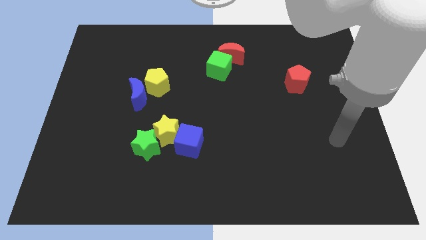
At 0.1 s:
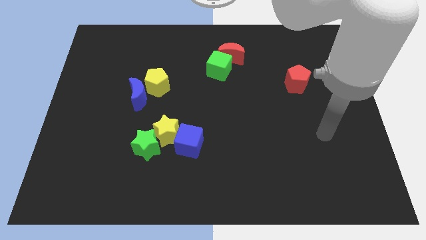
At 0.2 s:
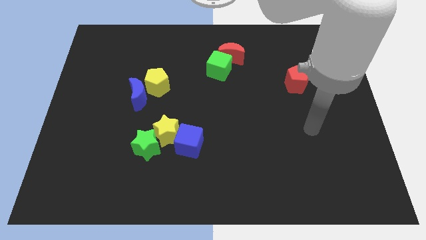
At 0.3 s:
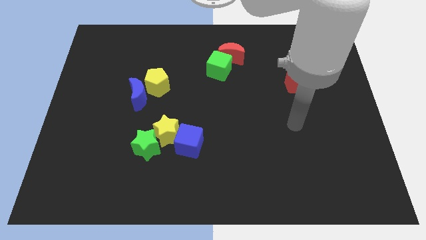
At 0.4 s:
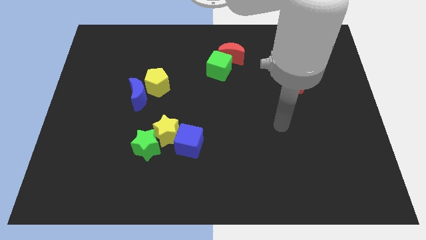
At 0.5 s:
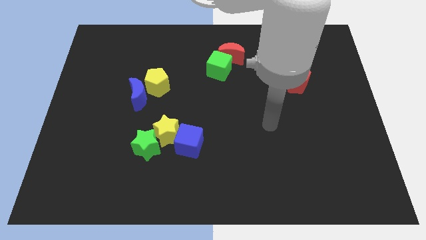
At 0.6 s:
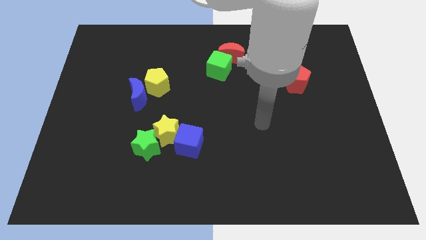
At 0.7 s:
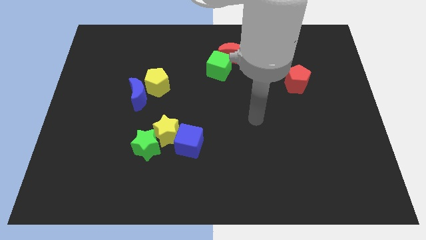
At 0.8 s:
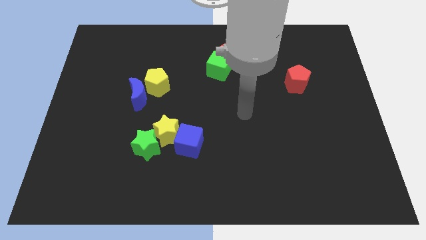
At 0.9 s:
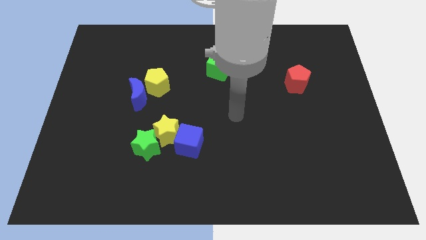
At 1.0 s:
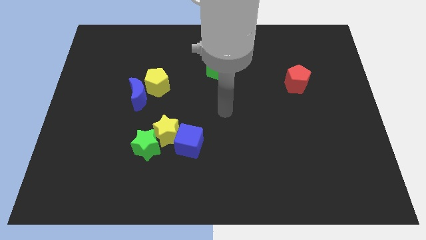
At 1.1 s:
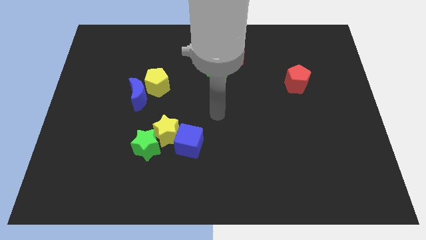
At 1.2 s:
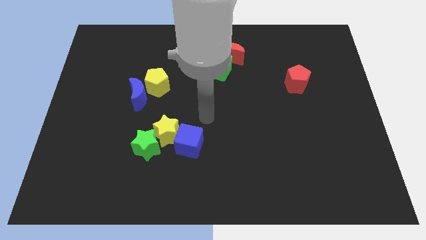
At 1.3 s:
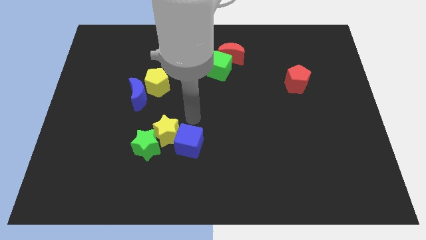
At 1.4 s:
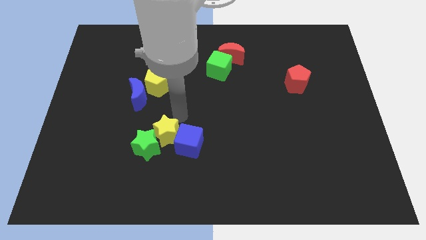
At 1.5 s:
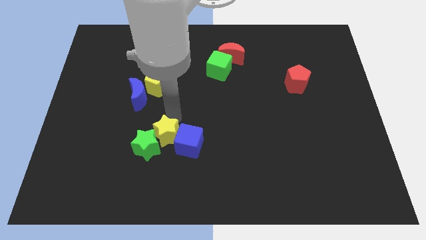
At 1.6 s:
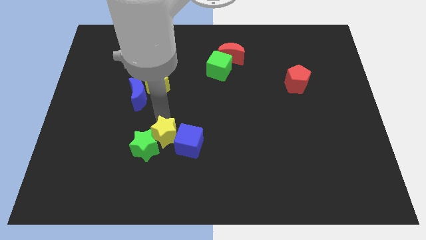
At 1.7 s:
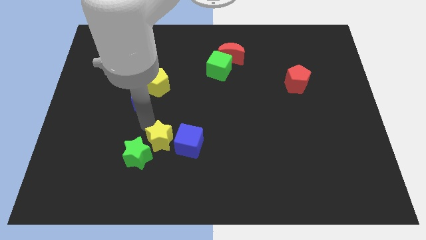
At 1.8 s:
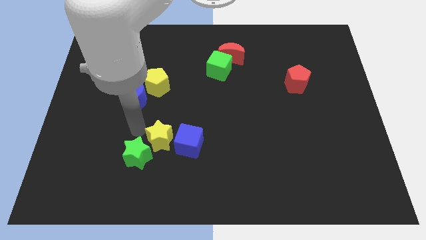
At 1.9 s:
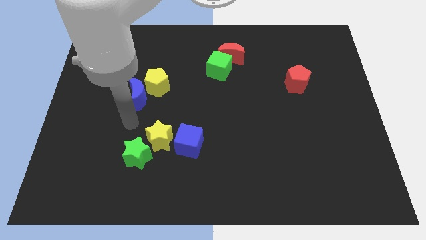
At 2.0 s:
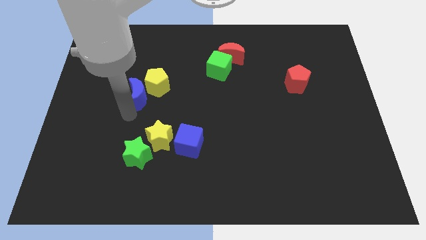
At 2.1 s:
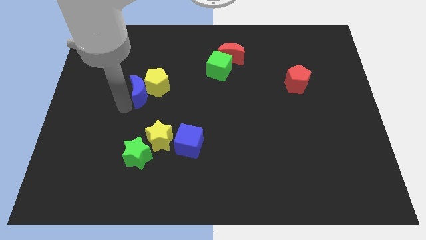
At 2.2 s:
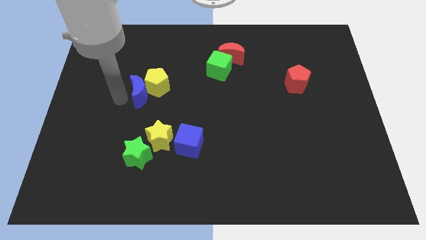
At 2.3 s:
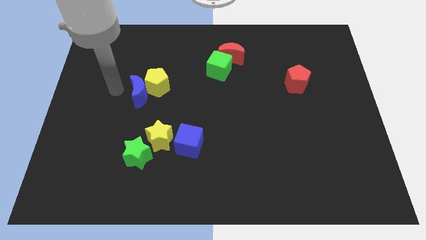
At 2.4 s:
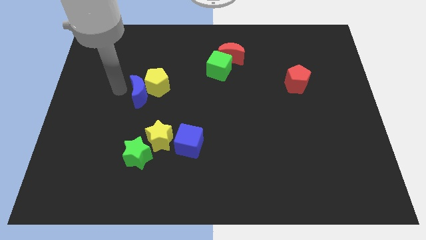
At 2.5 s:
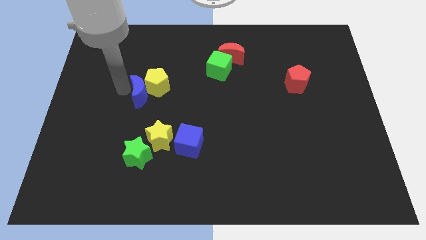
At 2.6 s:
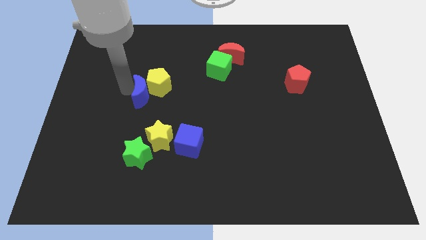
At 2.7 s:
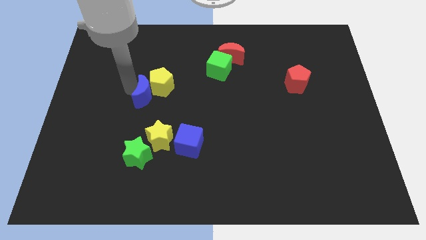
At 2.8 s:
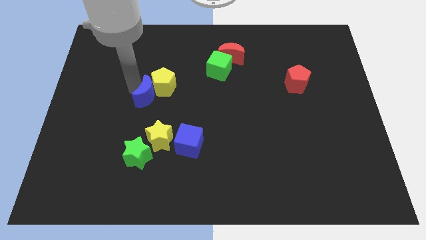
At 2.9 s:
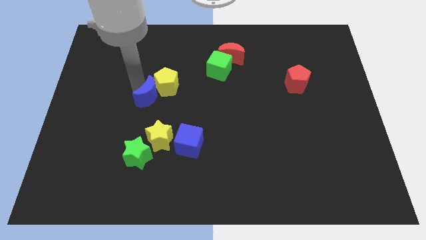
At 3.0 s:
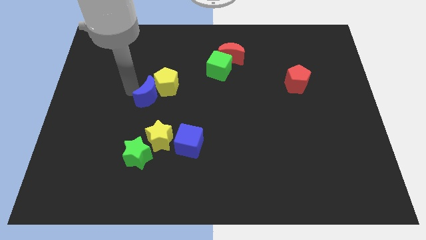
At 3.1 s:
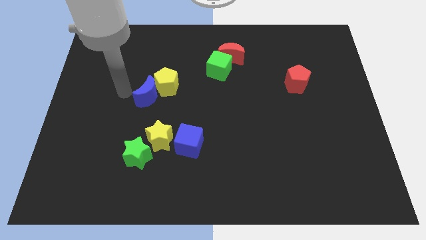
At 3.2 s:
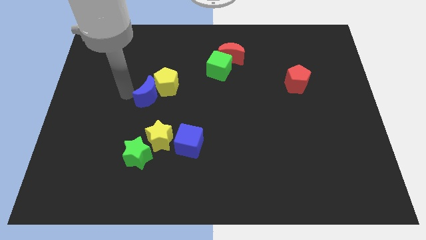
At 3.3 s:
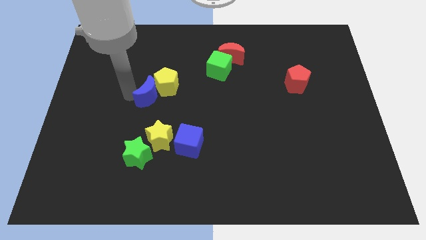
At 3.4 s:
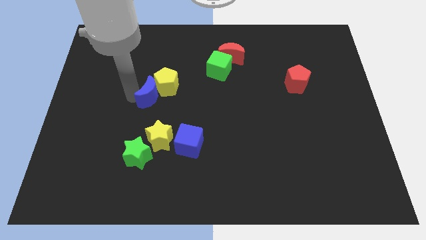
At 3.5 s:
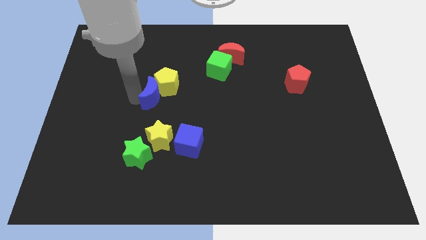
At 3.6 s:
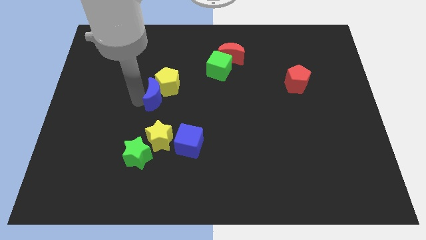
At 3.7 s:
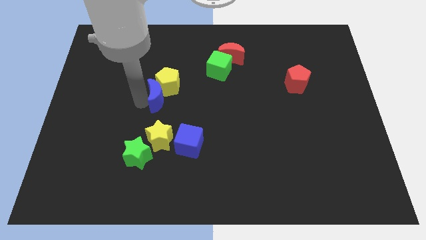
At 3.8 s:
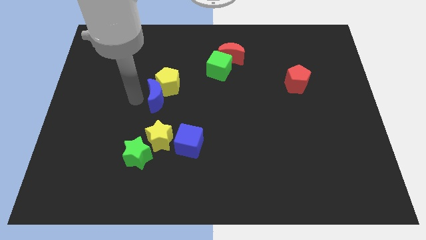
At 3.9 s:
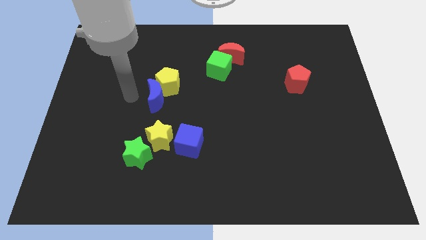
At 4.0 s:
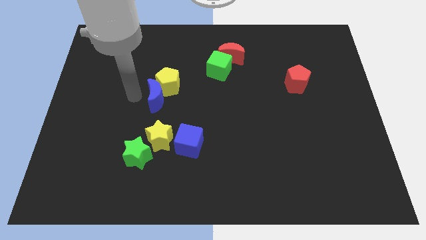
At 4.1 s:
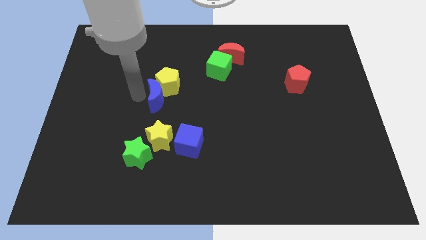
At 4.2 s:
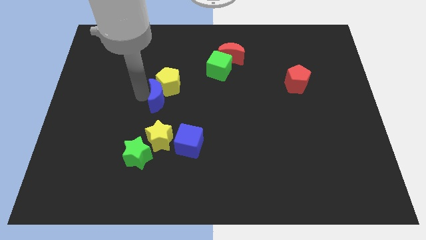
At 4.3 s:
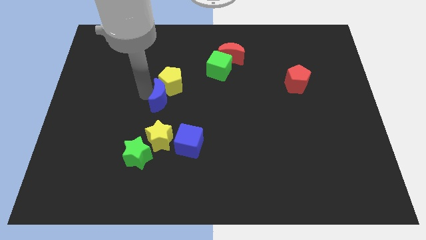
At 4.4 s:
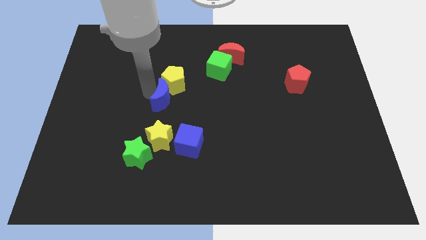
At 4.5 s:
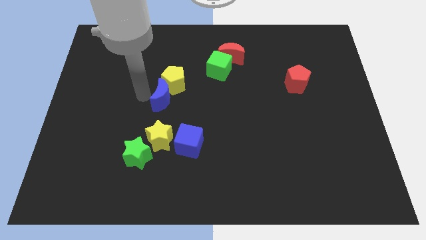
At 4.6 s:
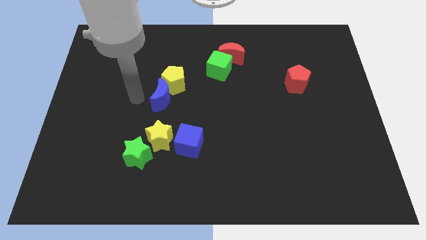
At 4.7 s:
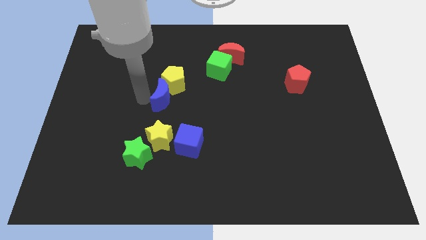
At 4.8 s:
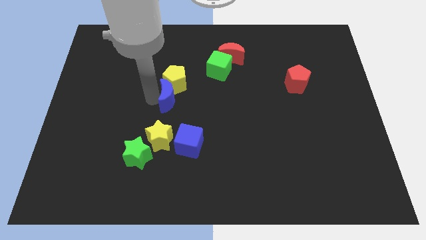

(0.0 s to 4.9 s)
push the blue moon diagonally down and to the right of the yellow pentagon

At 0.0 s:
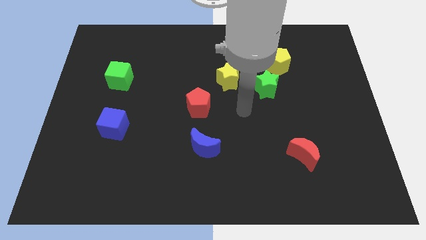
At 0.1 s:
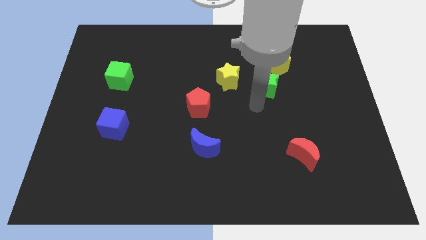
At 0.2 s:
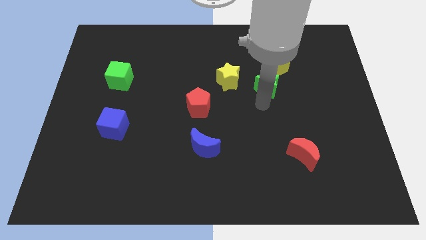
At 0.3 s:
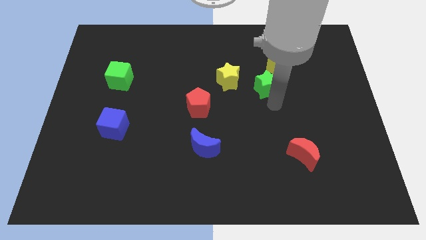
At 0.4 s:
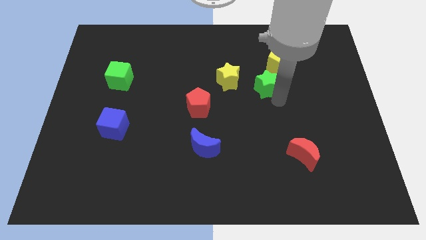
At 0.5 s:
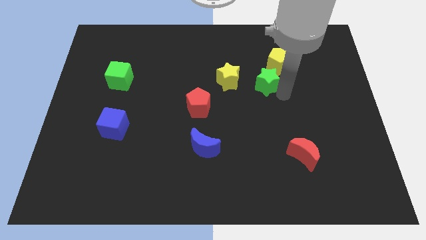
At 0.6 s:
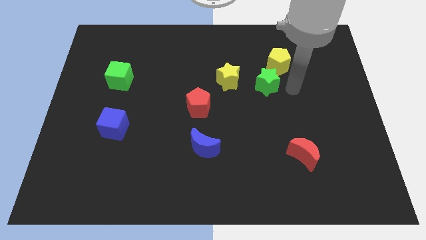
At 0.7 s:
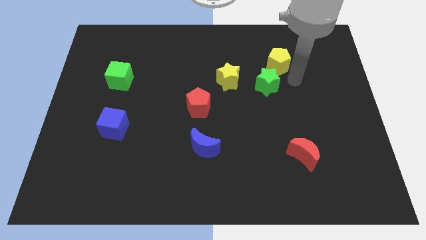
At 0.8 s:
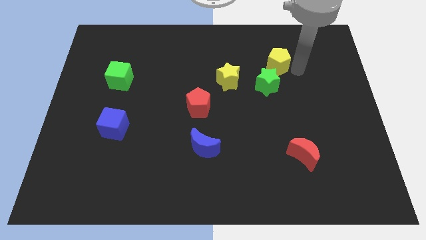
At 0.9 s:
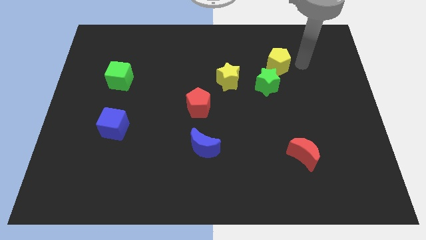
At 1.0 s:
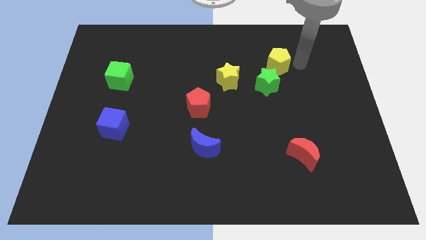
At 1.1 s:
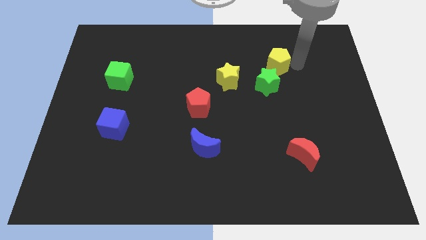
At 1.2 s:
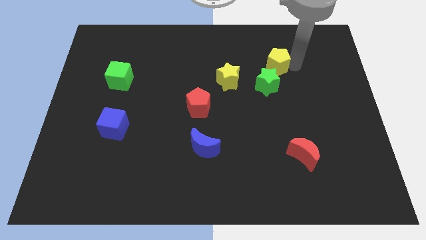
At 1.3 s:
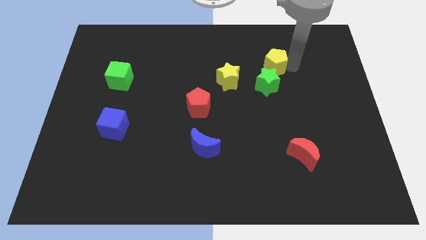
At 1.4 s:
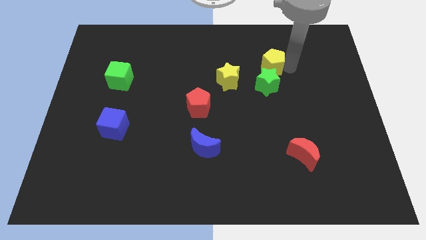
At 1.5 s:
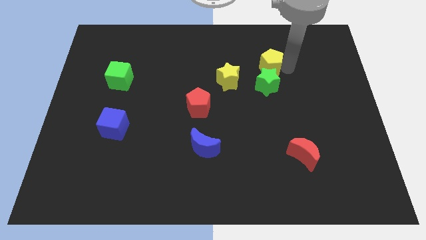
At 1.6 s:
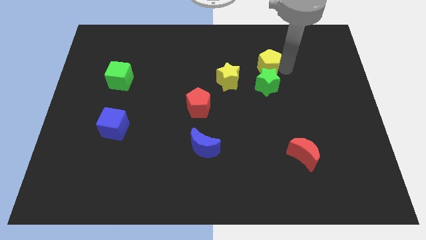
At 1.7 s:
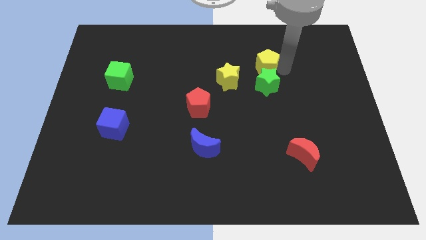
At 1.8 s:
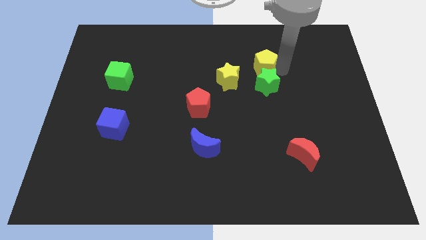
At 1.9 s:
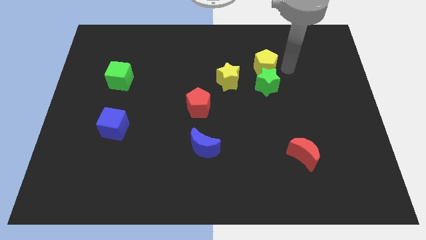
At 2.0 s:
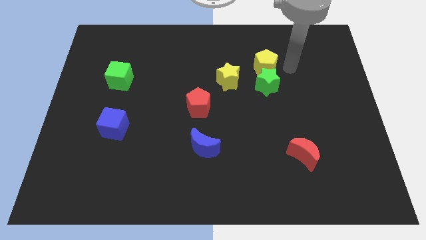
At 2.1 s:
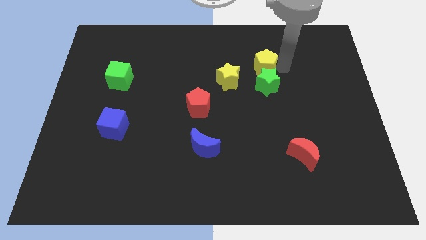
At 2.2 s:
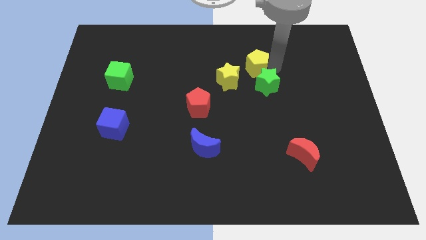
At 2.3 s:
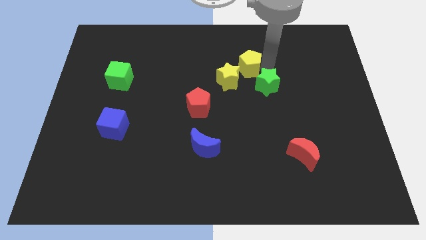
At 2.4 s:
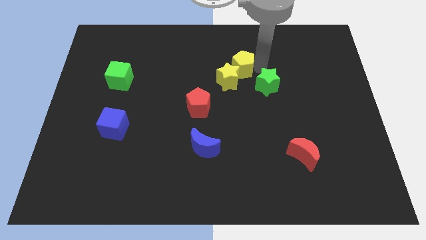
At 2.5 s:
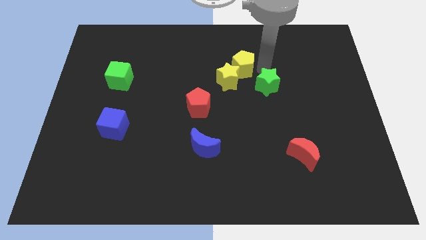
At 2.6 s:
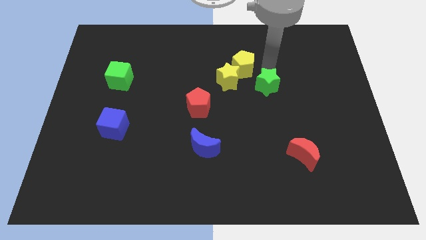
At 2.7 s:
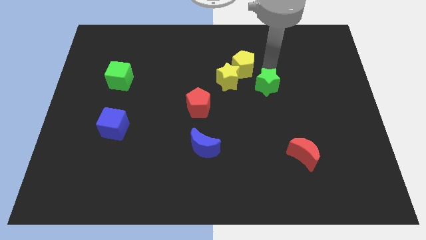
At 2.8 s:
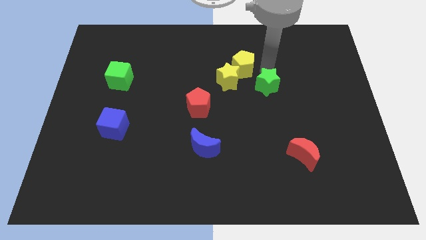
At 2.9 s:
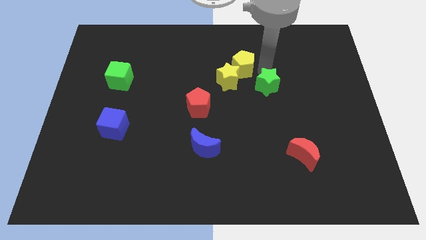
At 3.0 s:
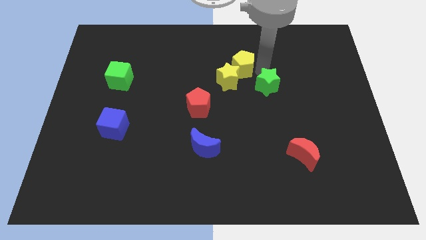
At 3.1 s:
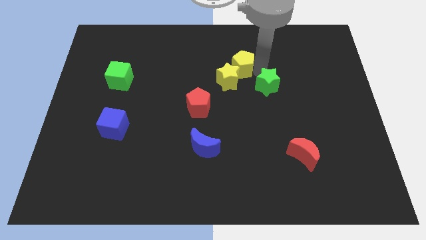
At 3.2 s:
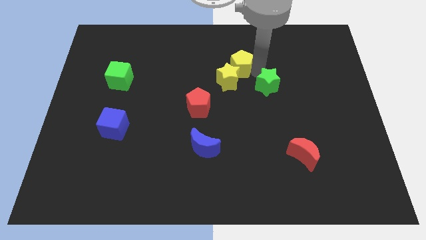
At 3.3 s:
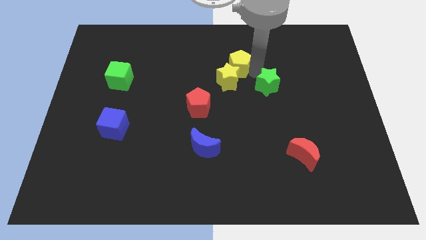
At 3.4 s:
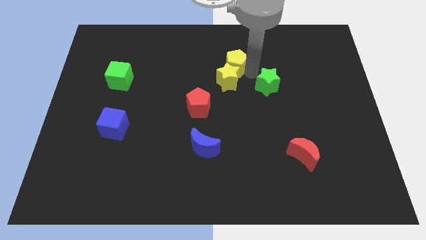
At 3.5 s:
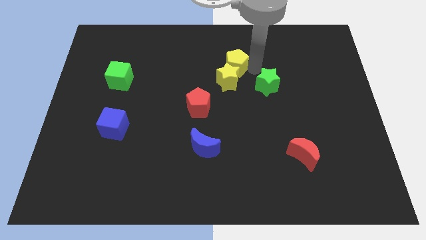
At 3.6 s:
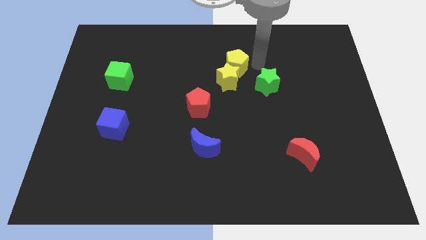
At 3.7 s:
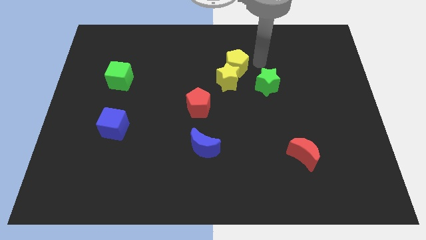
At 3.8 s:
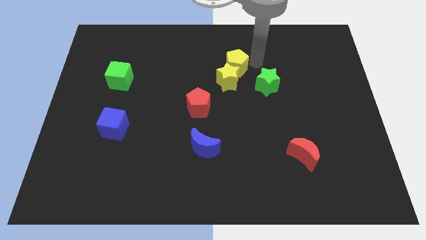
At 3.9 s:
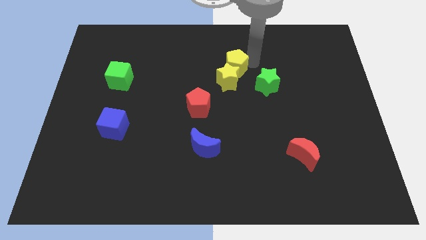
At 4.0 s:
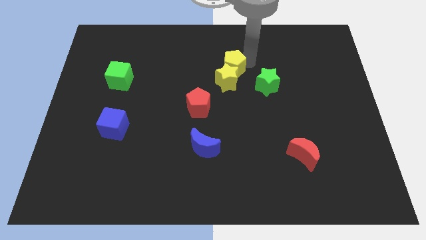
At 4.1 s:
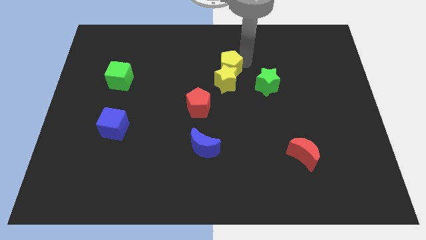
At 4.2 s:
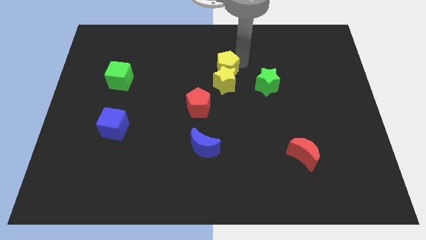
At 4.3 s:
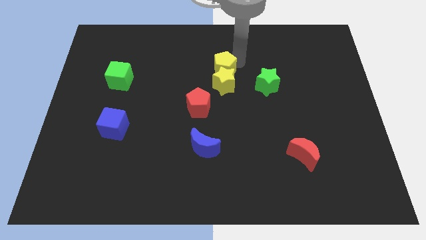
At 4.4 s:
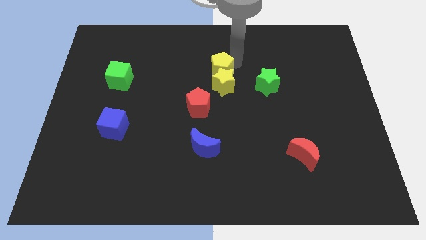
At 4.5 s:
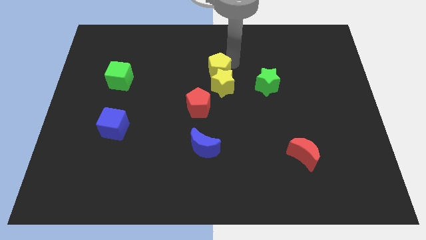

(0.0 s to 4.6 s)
put the yellow pentagon to the top side of the red pentagon
